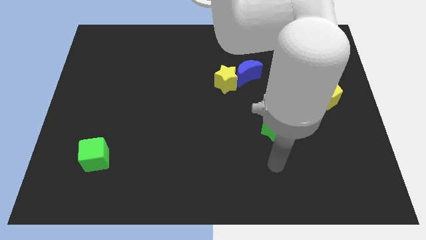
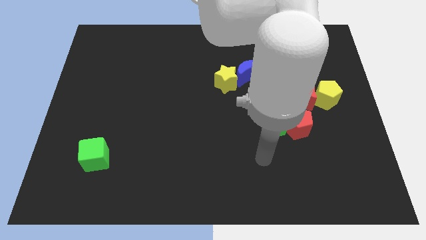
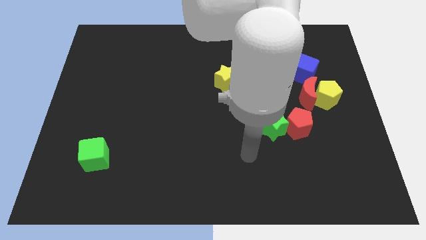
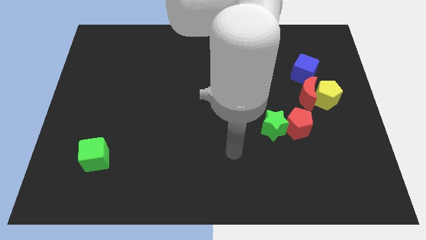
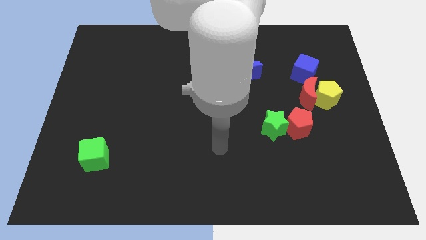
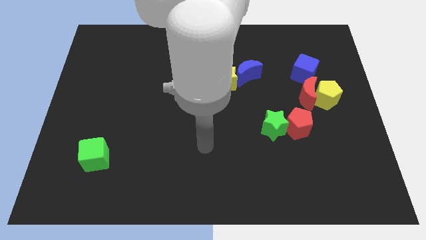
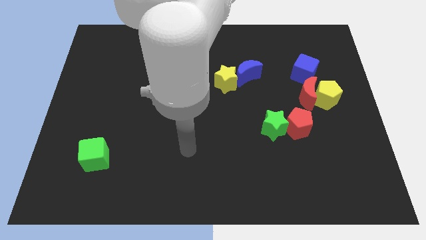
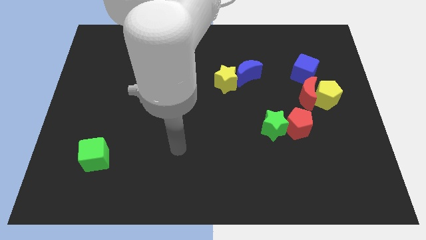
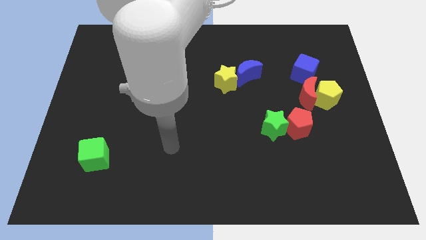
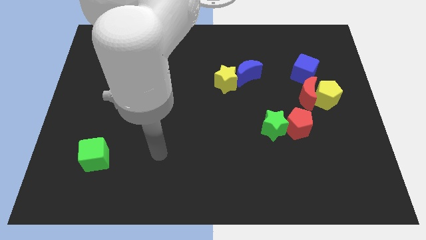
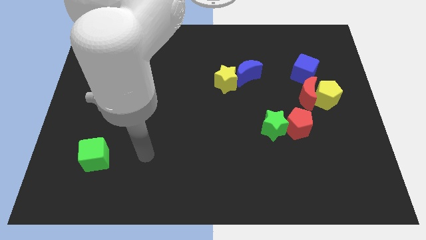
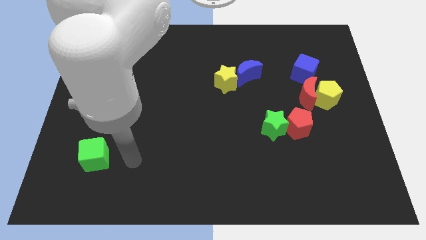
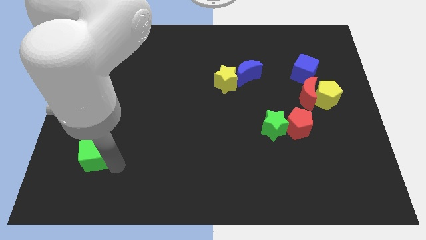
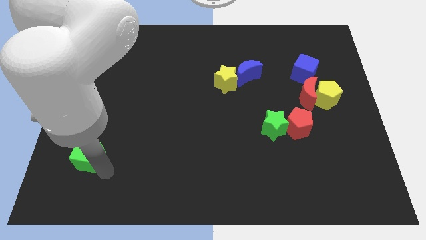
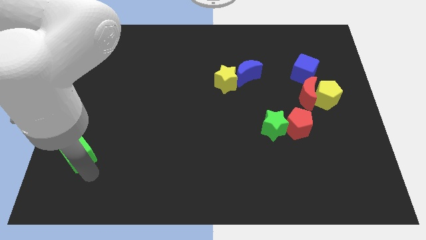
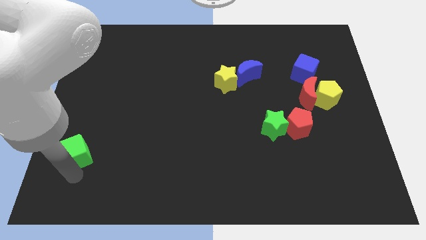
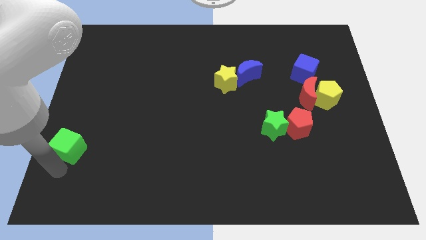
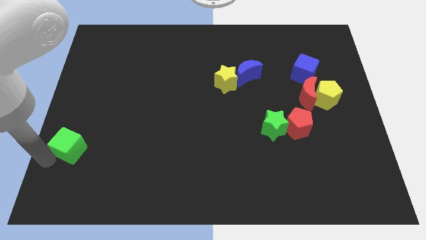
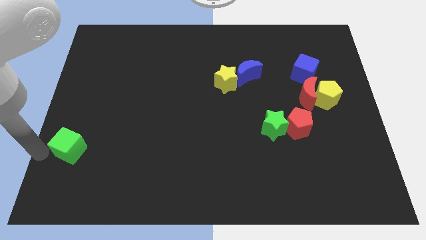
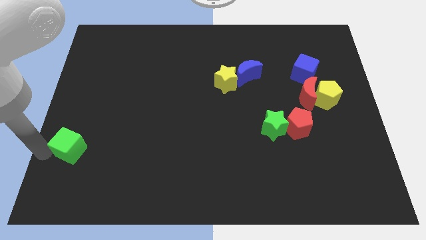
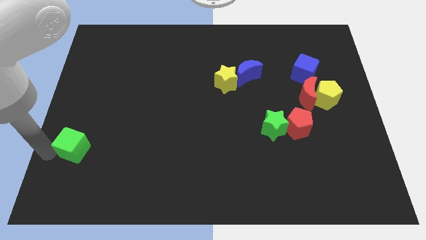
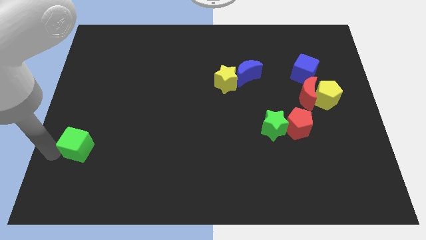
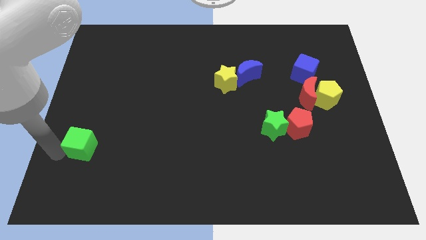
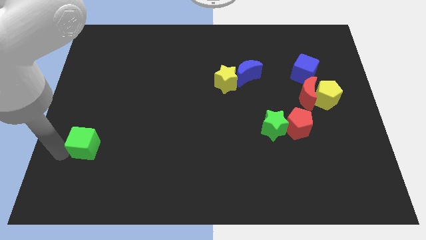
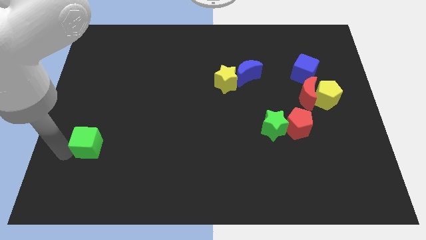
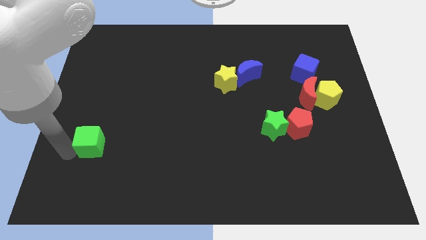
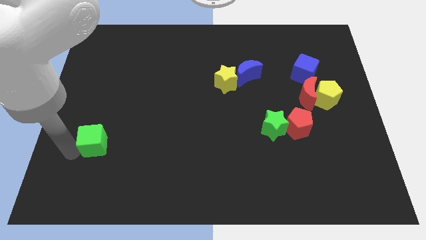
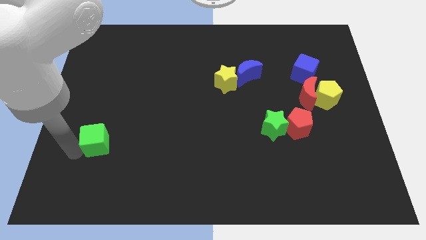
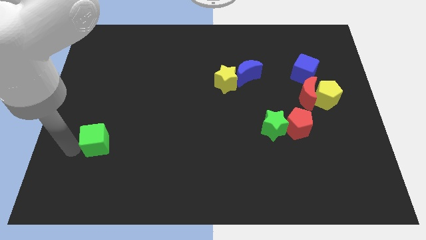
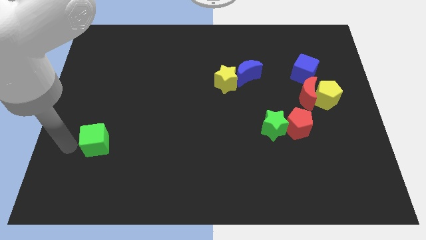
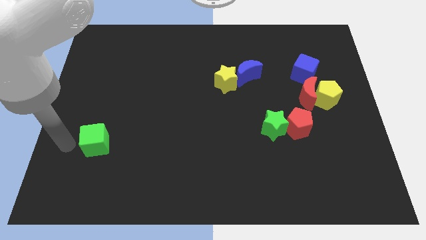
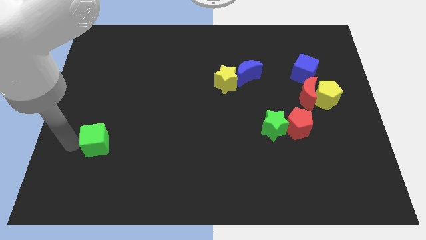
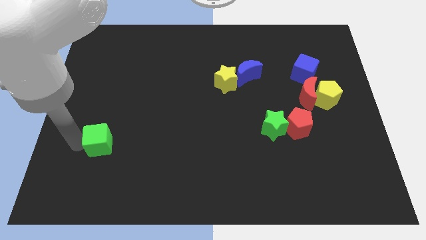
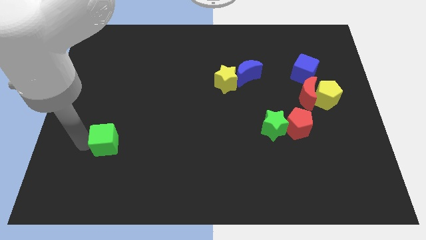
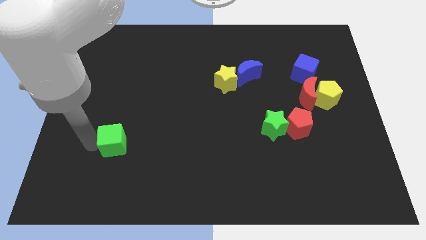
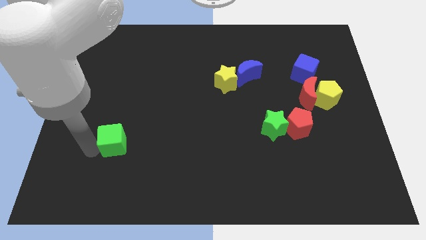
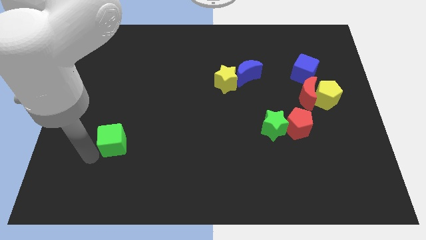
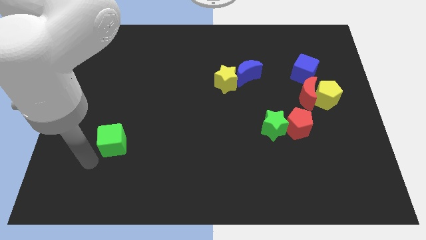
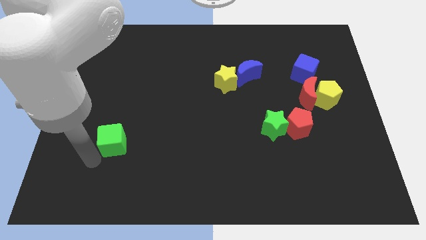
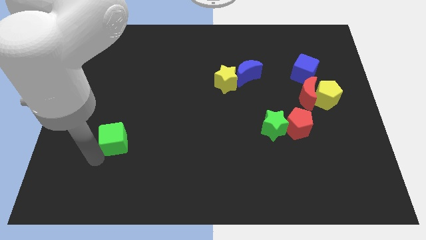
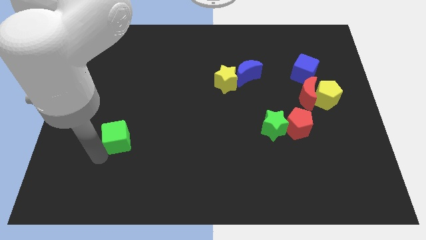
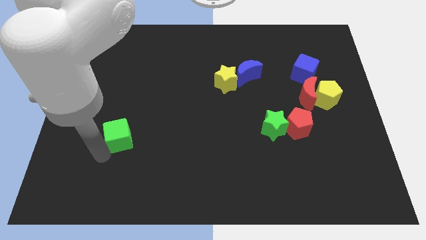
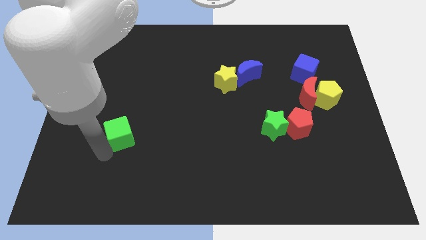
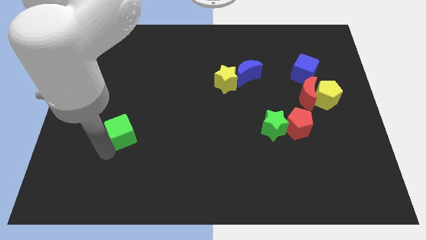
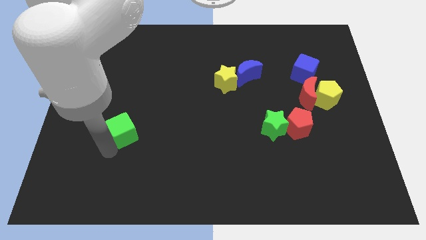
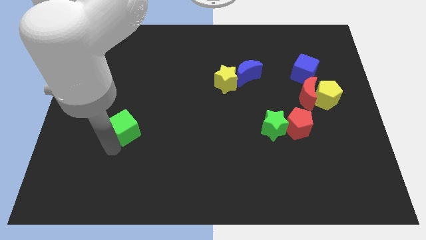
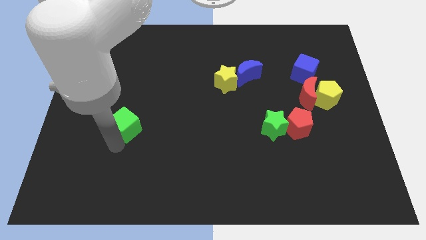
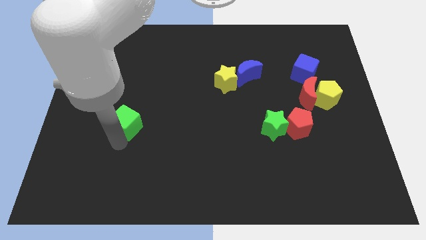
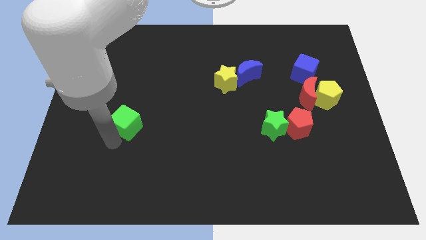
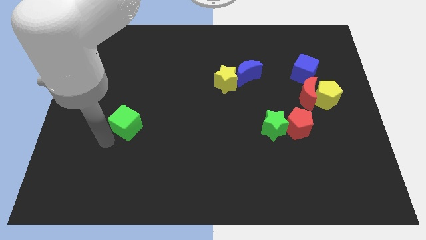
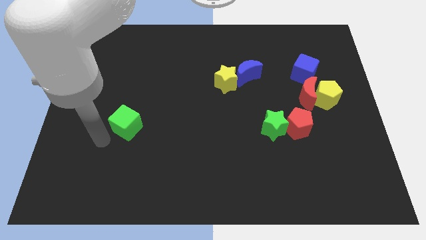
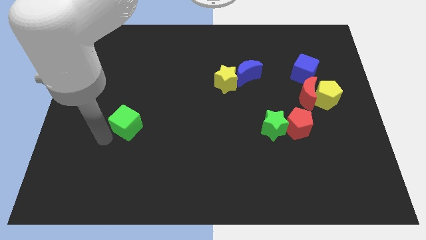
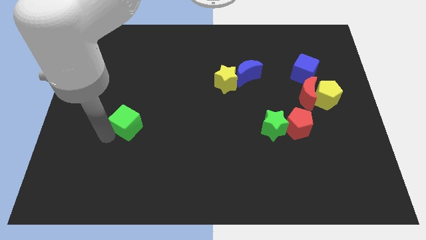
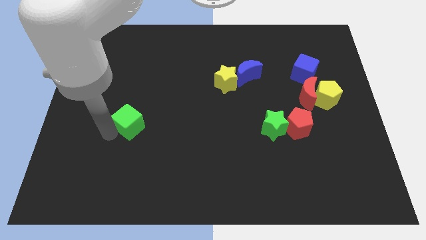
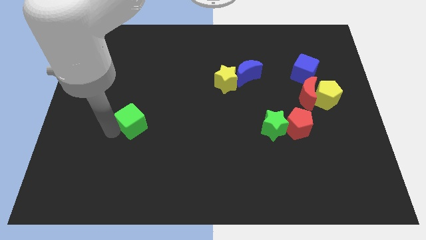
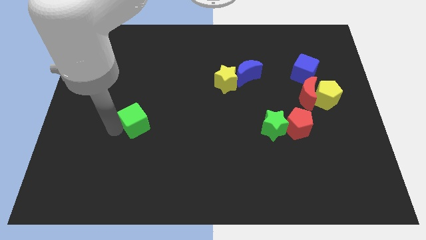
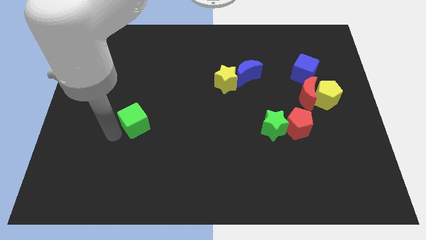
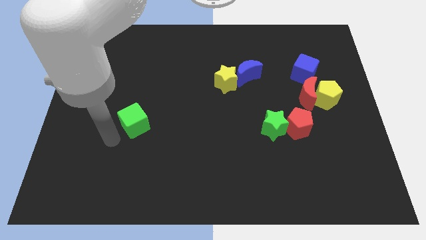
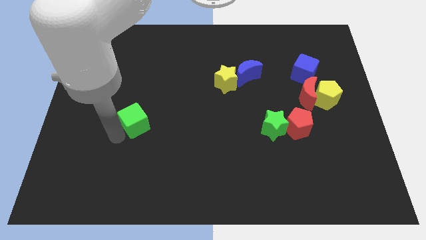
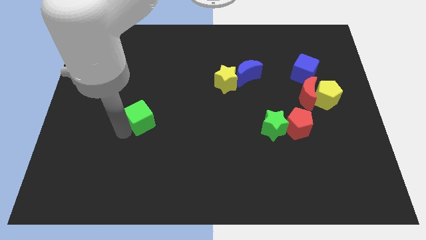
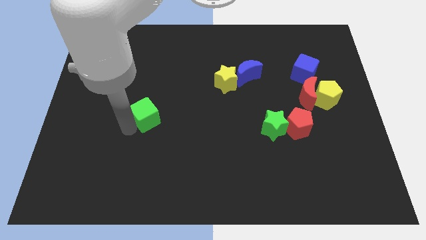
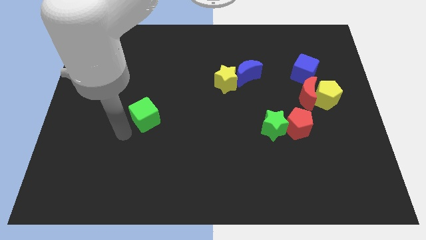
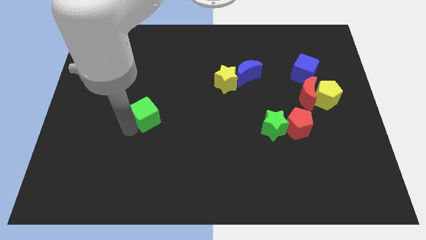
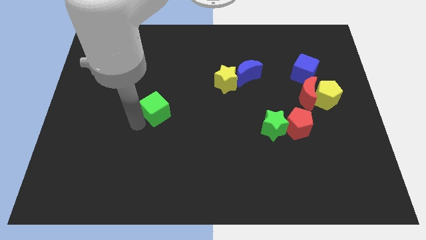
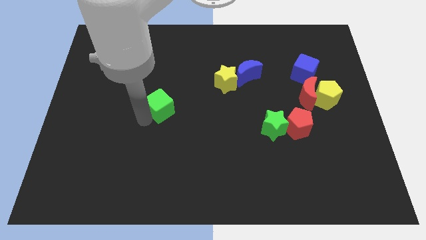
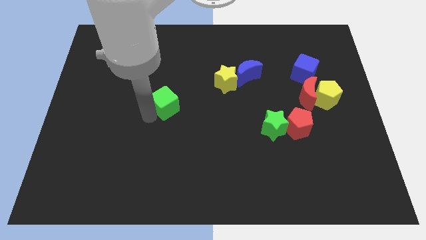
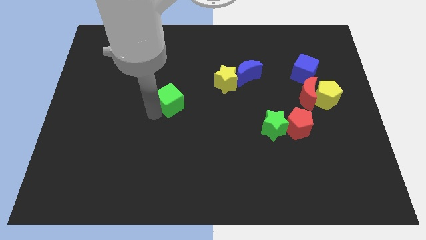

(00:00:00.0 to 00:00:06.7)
move the green cube up and then right

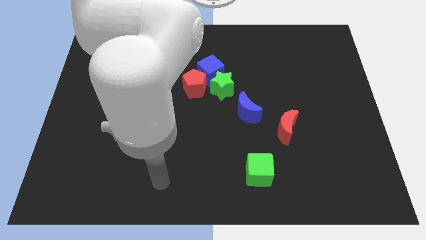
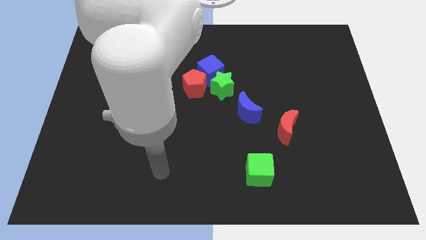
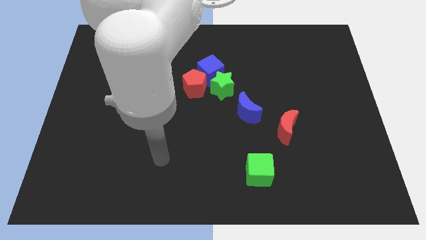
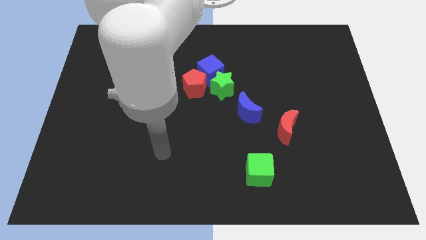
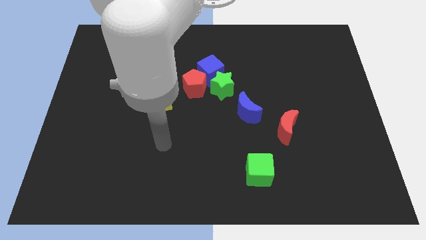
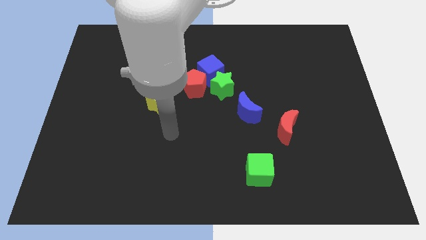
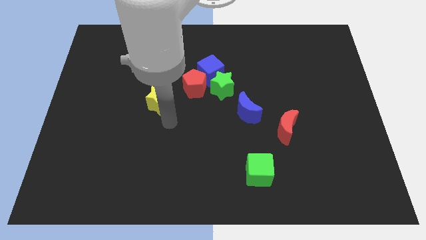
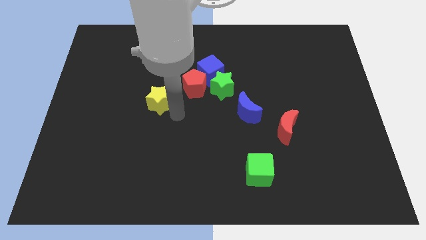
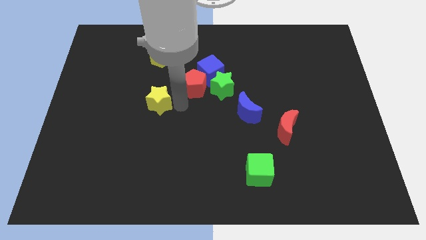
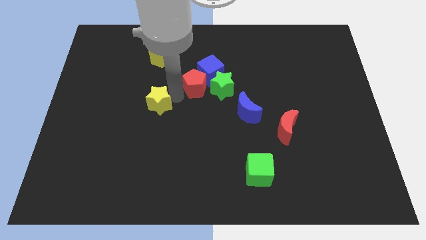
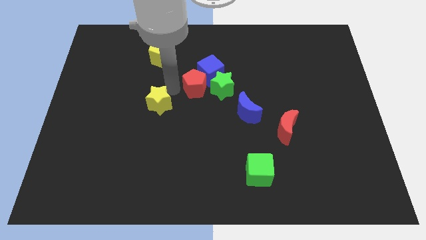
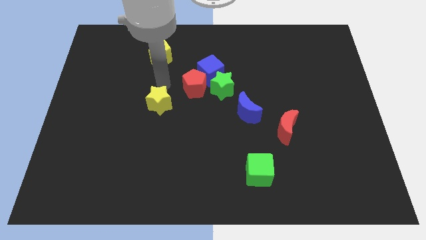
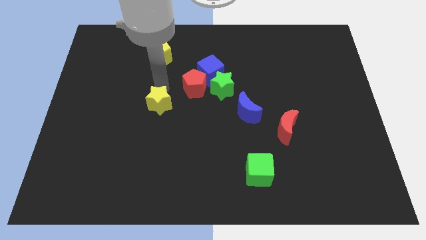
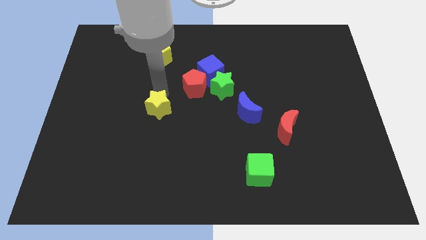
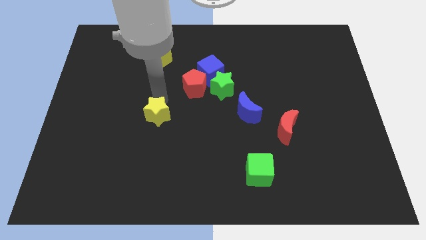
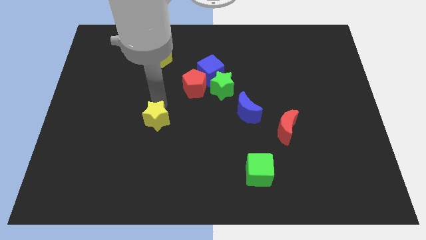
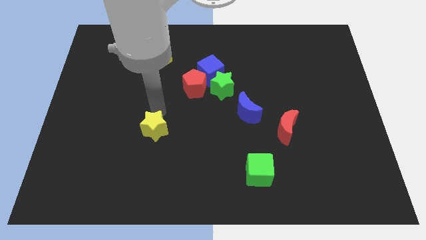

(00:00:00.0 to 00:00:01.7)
slightly slide the yellow star down

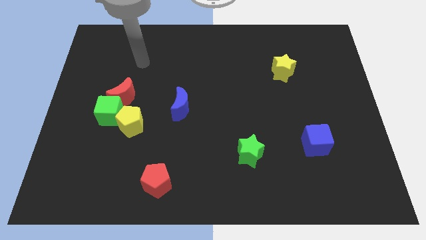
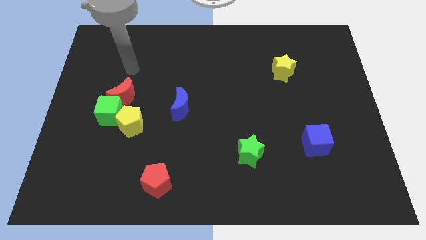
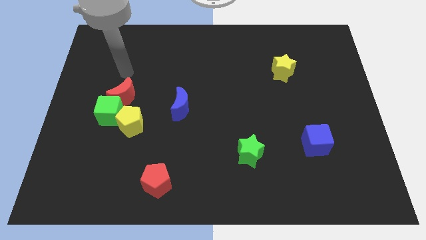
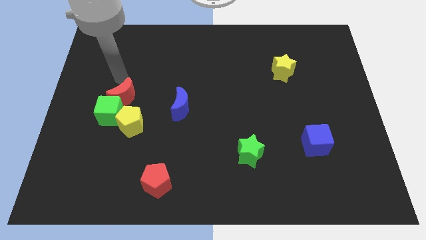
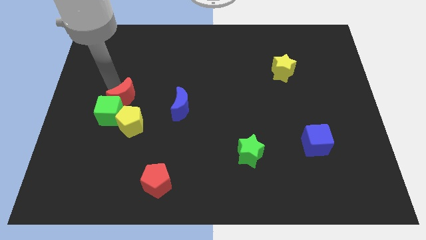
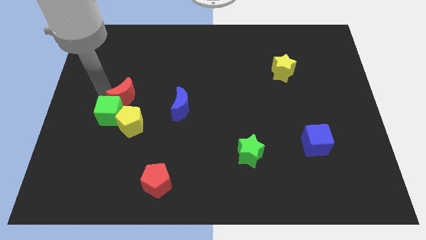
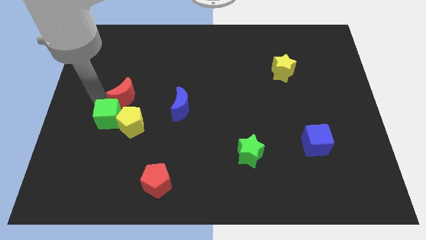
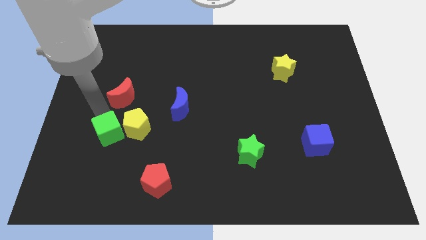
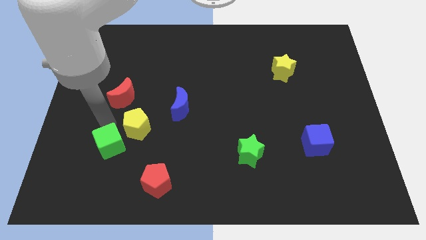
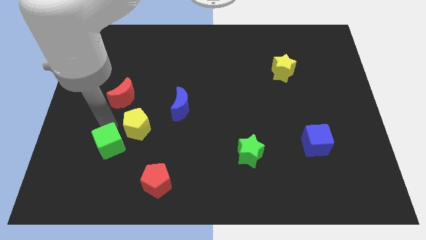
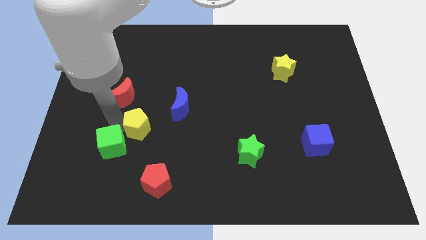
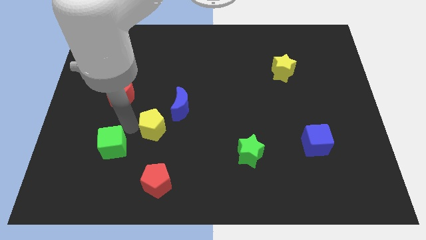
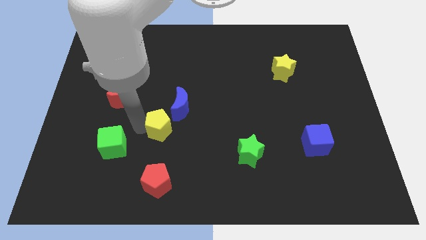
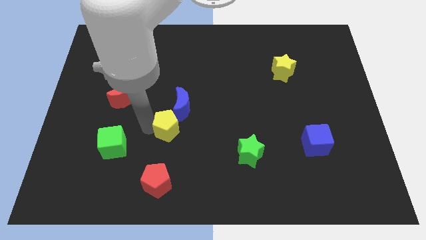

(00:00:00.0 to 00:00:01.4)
slightly move the yellow pentagon to the right
